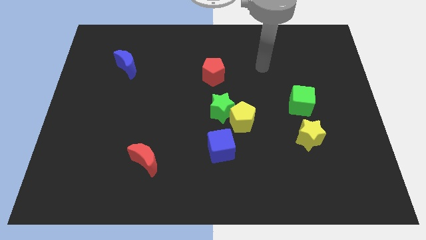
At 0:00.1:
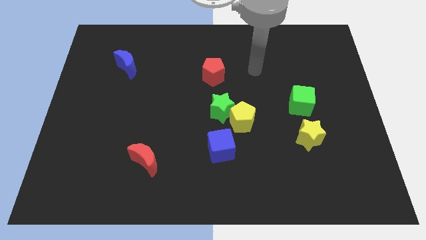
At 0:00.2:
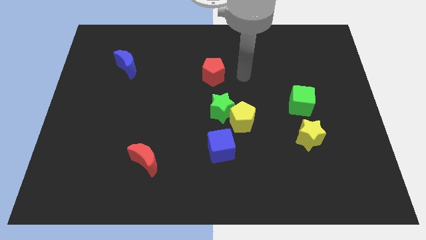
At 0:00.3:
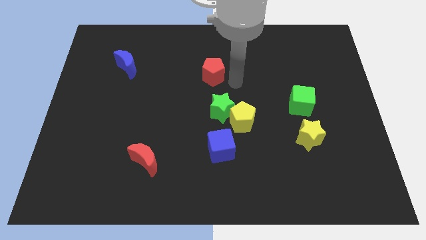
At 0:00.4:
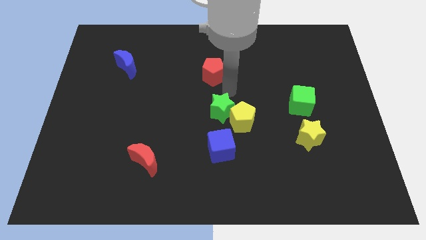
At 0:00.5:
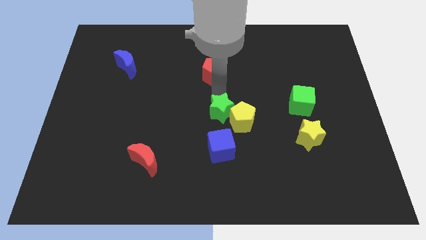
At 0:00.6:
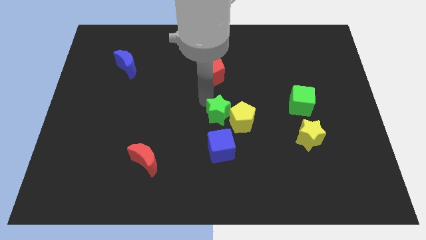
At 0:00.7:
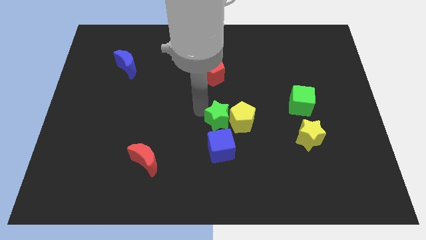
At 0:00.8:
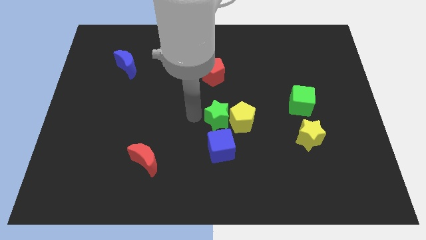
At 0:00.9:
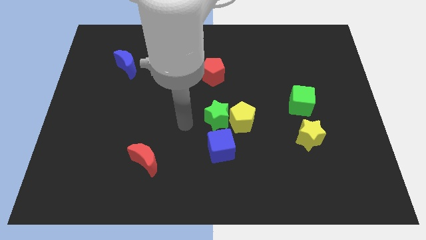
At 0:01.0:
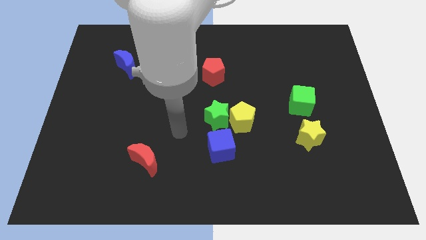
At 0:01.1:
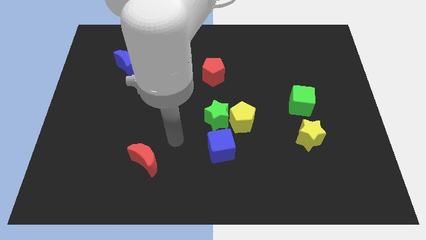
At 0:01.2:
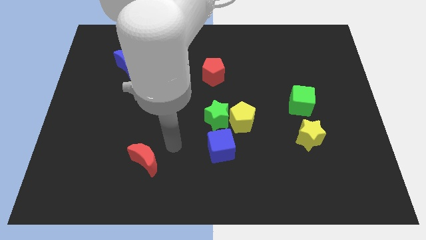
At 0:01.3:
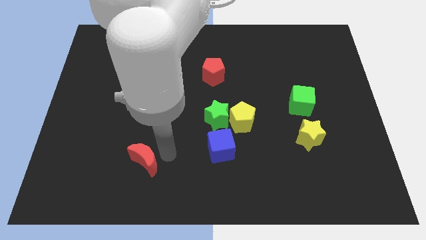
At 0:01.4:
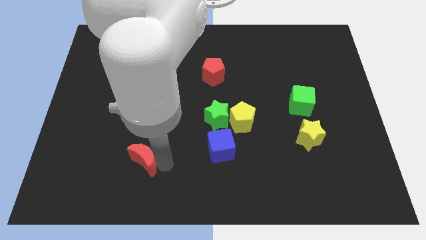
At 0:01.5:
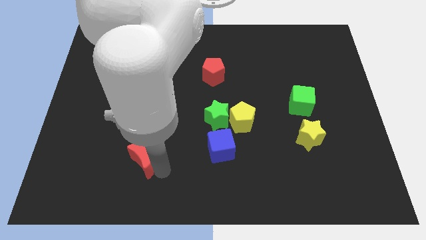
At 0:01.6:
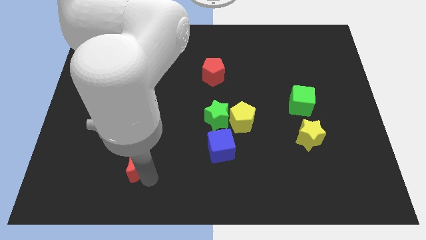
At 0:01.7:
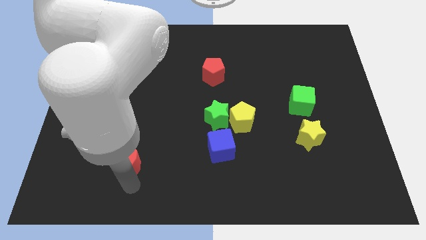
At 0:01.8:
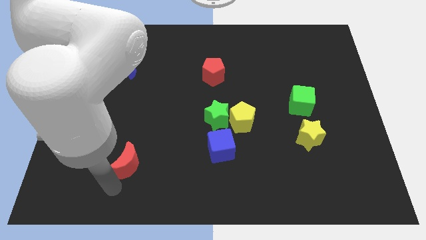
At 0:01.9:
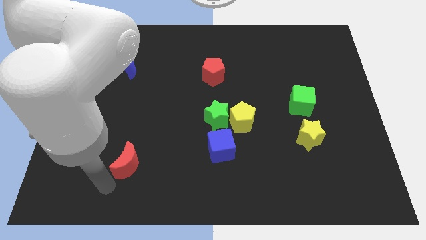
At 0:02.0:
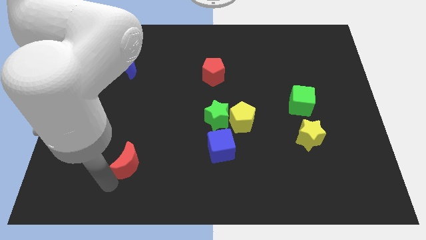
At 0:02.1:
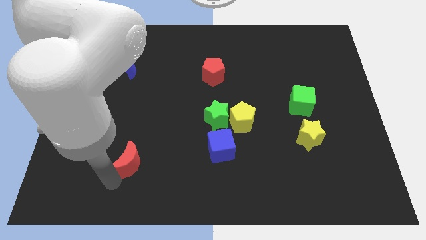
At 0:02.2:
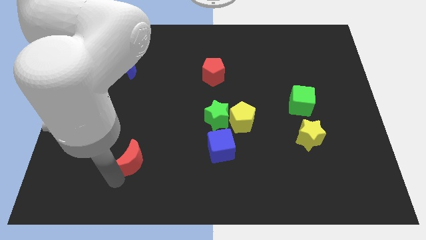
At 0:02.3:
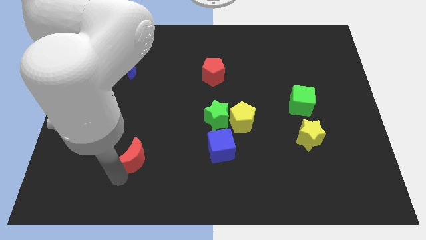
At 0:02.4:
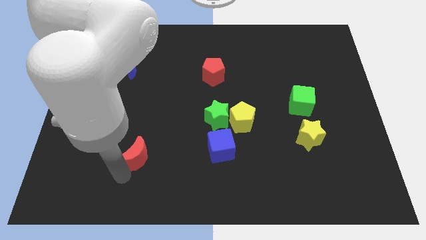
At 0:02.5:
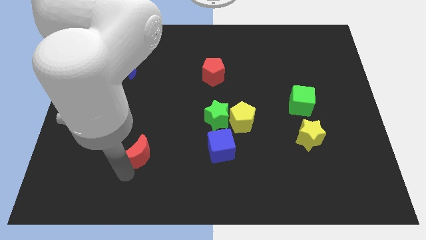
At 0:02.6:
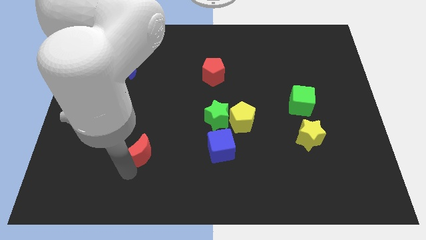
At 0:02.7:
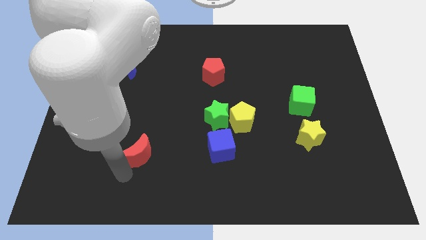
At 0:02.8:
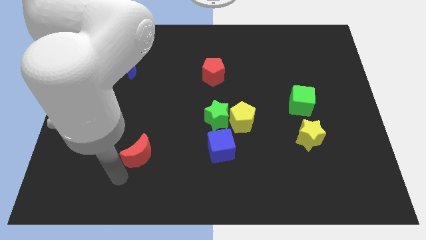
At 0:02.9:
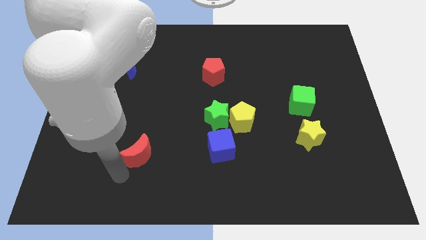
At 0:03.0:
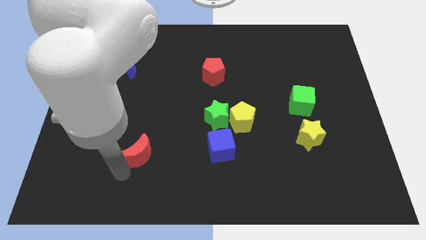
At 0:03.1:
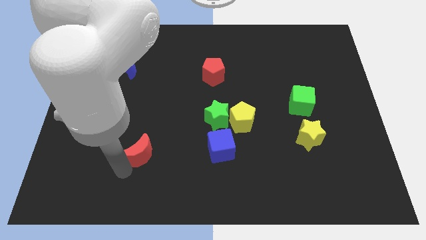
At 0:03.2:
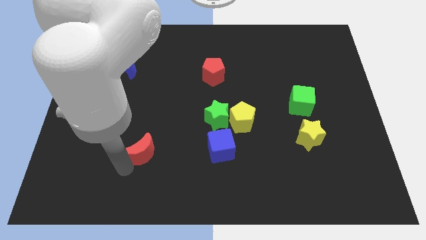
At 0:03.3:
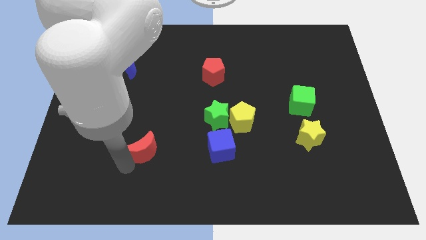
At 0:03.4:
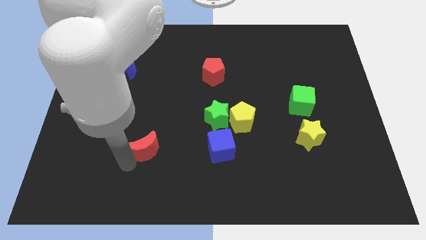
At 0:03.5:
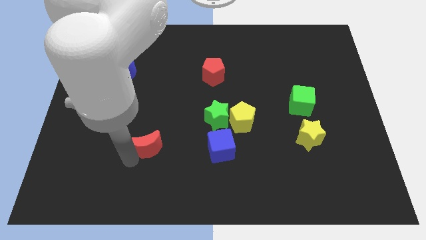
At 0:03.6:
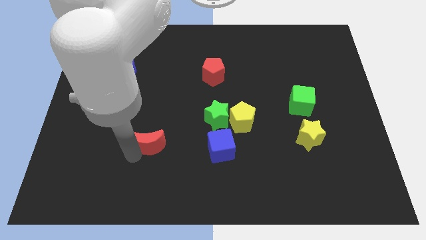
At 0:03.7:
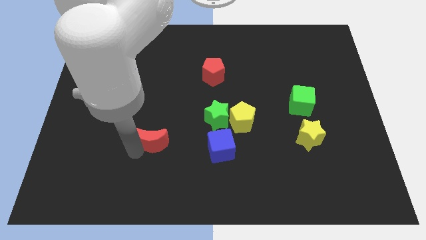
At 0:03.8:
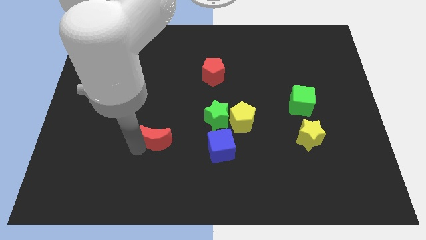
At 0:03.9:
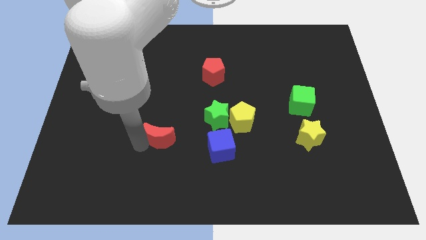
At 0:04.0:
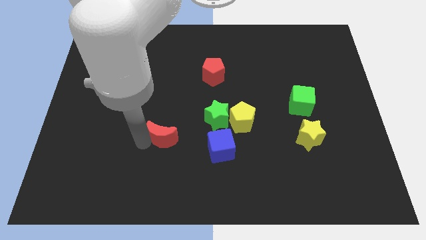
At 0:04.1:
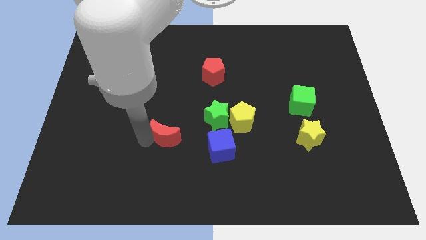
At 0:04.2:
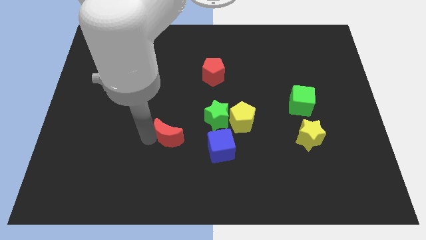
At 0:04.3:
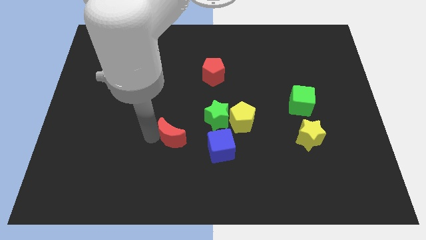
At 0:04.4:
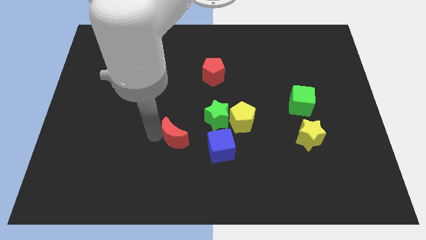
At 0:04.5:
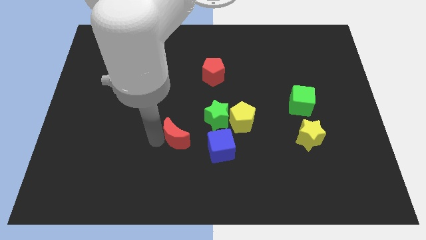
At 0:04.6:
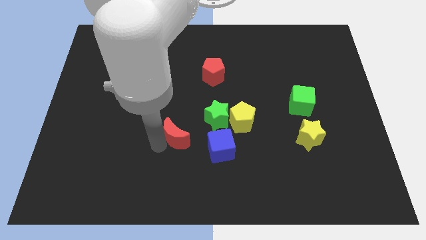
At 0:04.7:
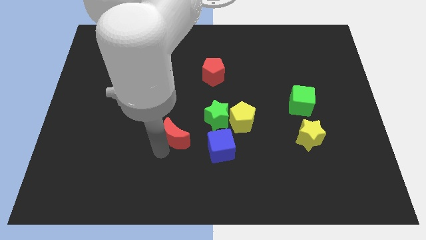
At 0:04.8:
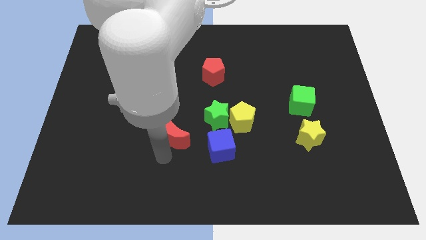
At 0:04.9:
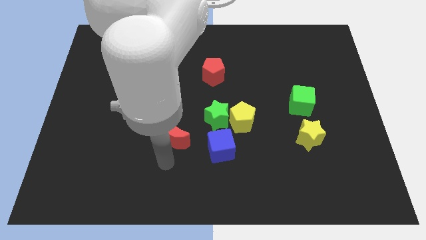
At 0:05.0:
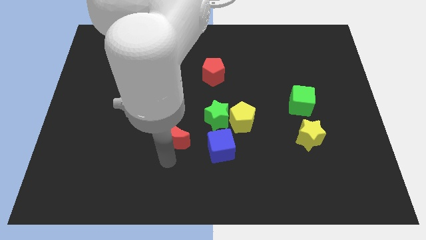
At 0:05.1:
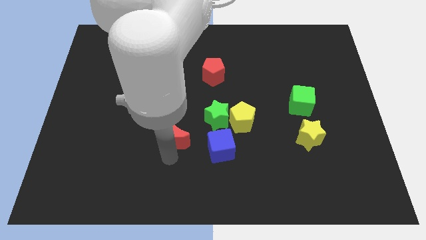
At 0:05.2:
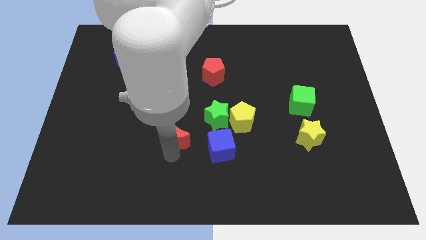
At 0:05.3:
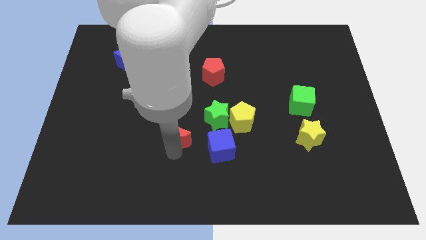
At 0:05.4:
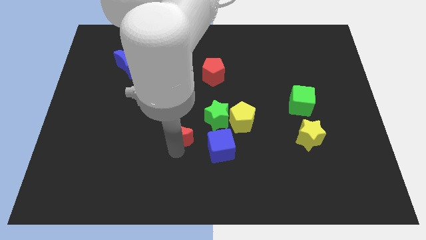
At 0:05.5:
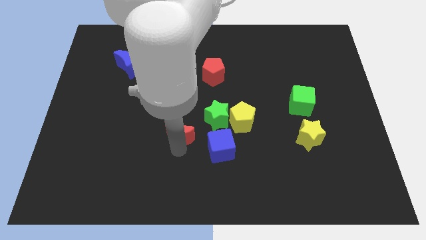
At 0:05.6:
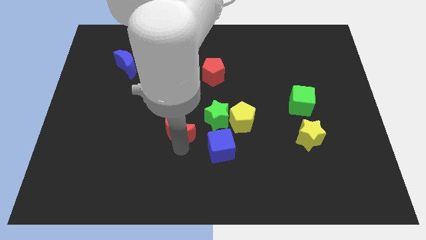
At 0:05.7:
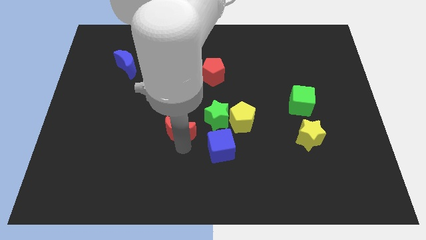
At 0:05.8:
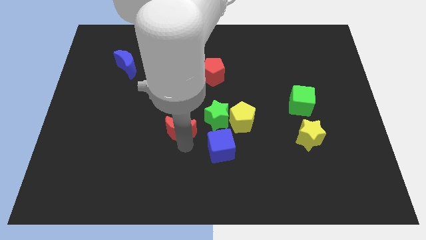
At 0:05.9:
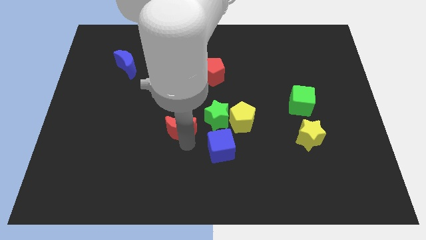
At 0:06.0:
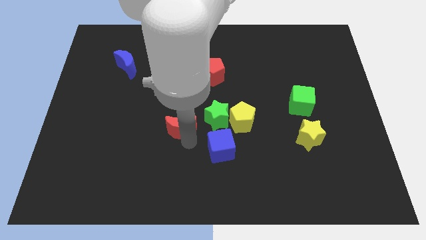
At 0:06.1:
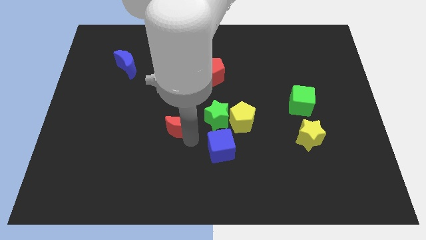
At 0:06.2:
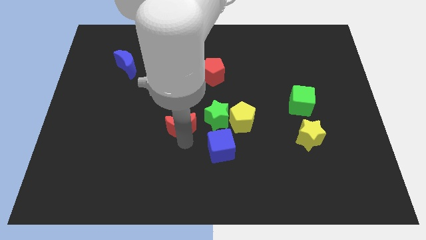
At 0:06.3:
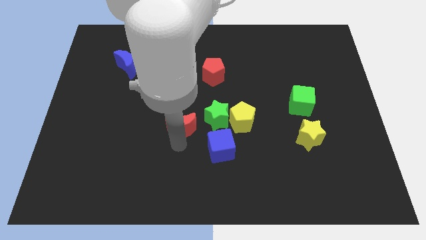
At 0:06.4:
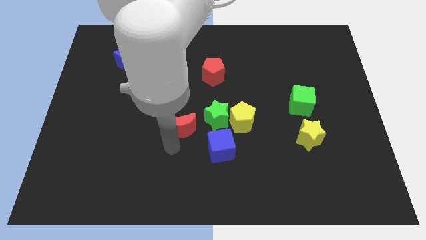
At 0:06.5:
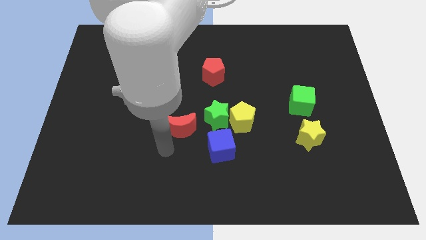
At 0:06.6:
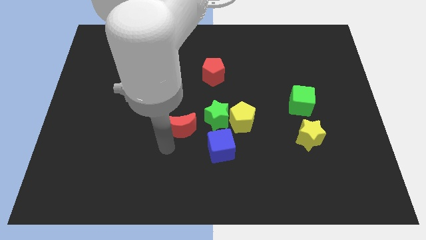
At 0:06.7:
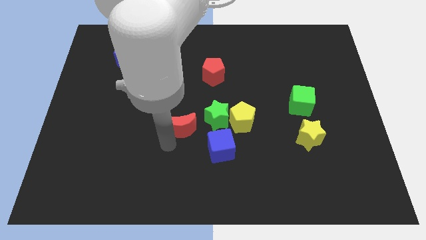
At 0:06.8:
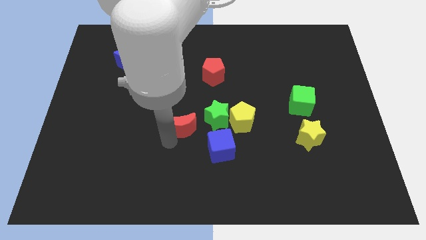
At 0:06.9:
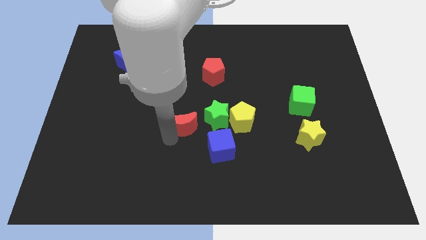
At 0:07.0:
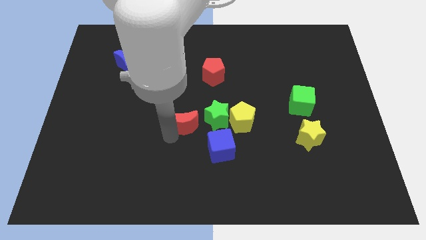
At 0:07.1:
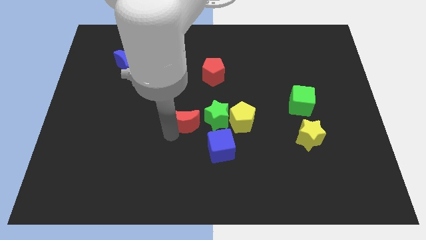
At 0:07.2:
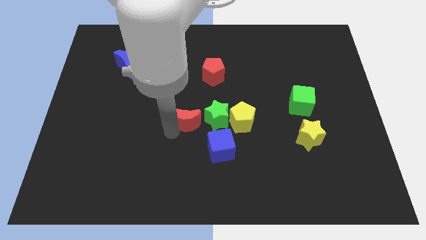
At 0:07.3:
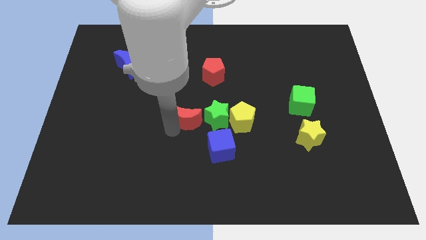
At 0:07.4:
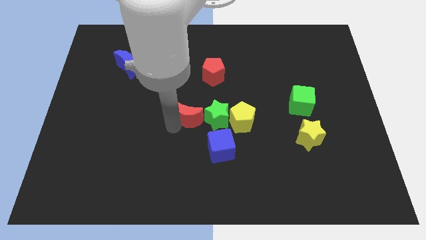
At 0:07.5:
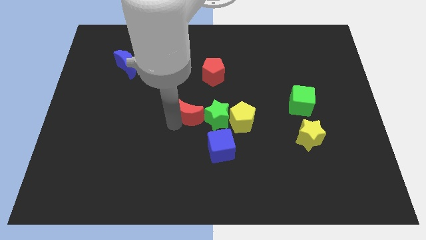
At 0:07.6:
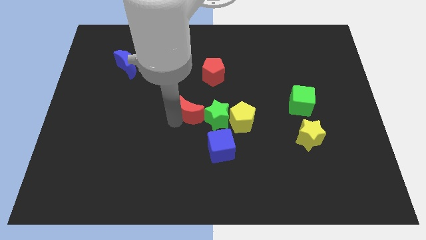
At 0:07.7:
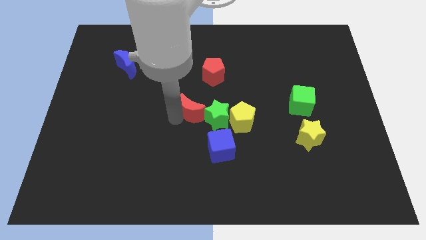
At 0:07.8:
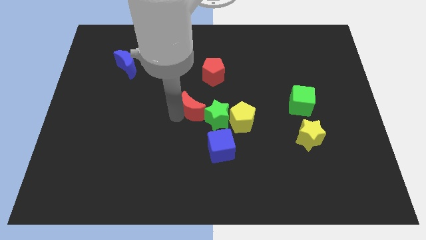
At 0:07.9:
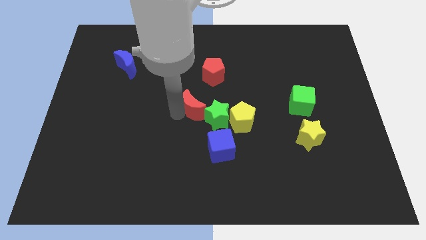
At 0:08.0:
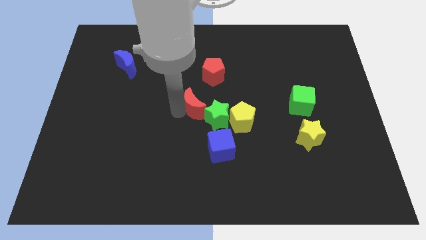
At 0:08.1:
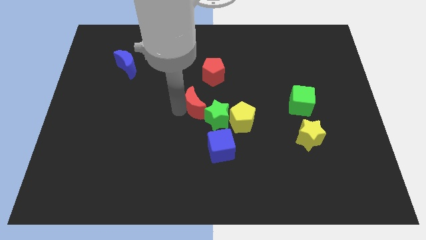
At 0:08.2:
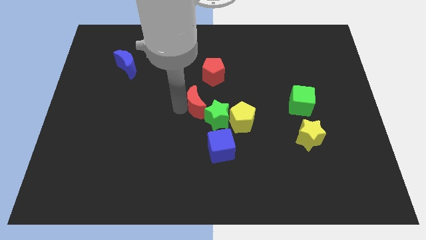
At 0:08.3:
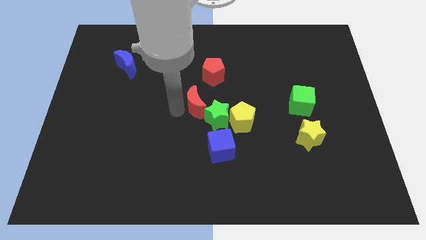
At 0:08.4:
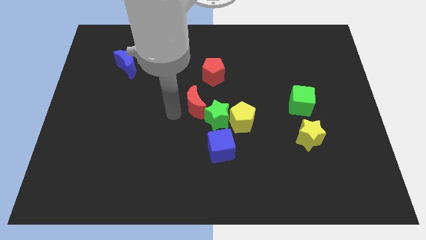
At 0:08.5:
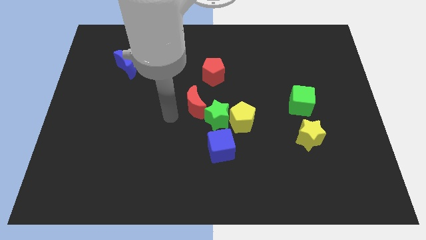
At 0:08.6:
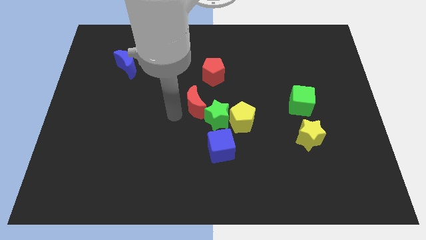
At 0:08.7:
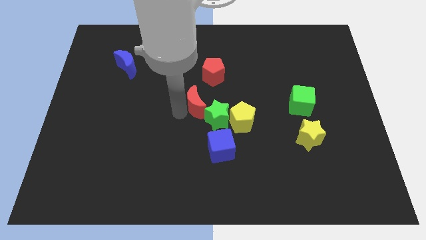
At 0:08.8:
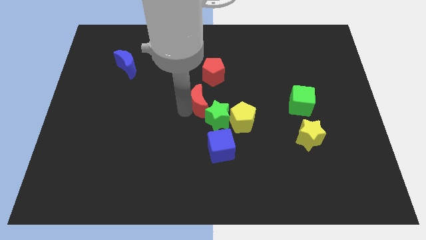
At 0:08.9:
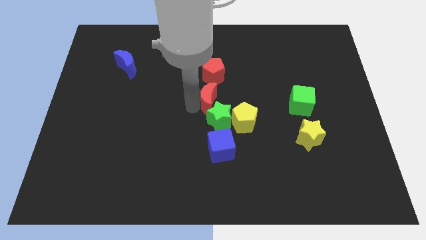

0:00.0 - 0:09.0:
push the red moon up and then right
